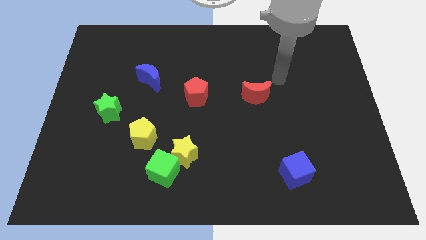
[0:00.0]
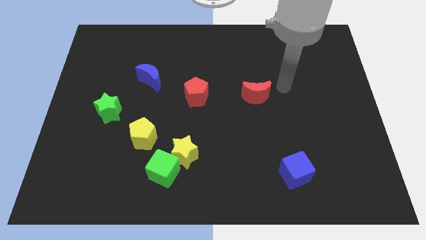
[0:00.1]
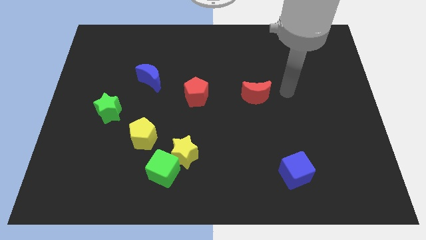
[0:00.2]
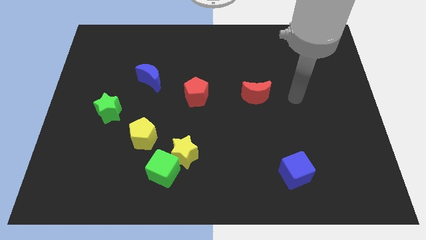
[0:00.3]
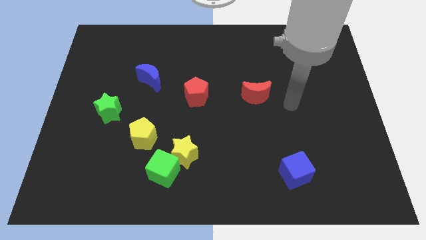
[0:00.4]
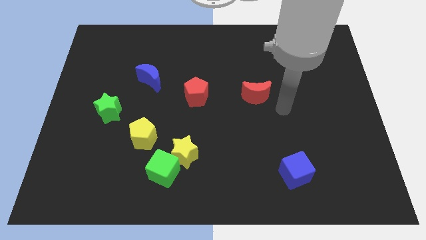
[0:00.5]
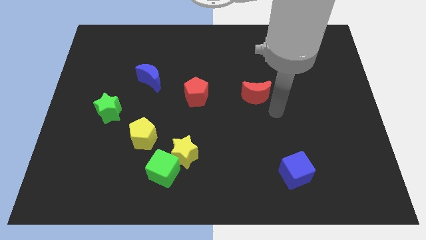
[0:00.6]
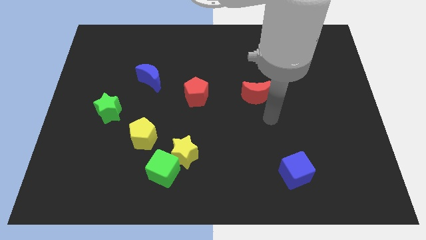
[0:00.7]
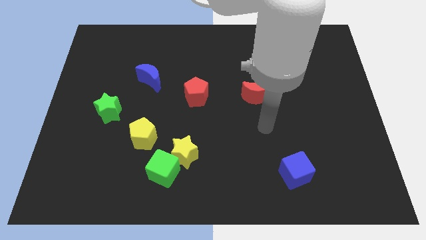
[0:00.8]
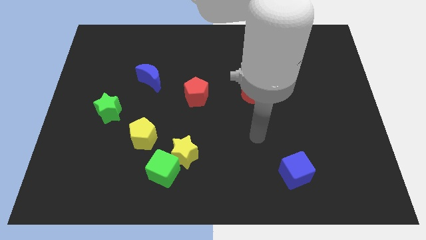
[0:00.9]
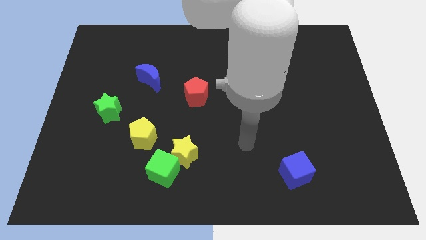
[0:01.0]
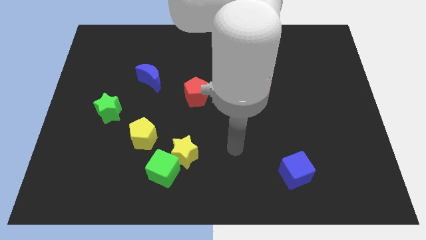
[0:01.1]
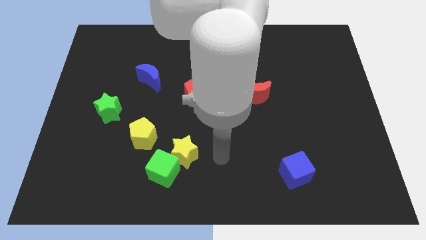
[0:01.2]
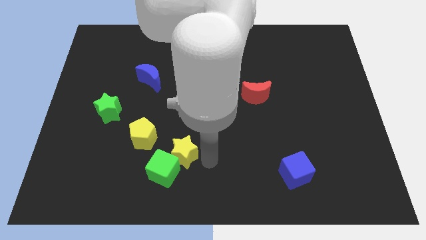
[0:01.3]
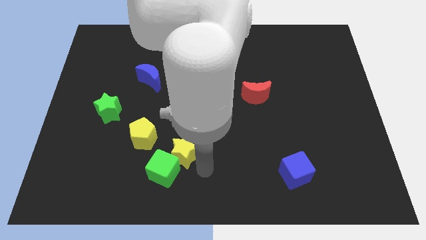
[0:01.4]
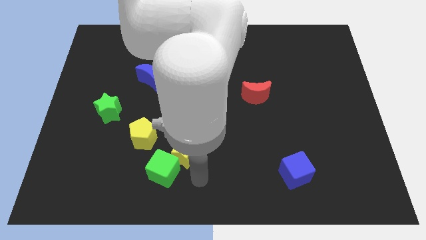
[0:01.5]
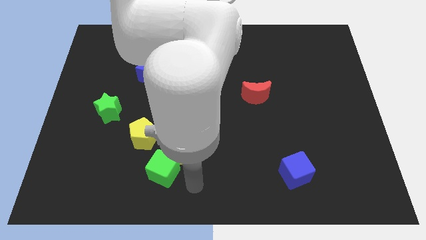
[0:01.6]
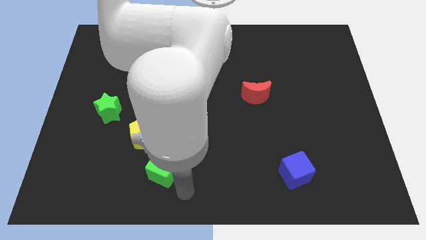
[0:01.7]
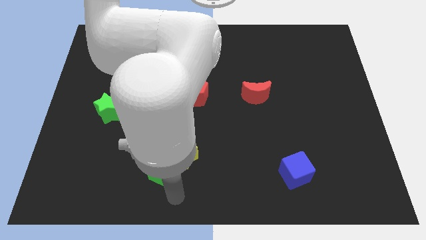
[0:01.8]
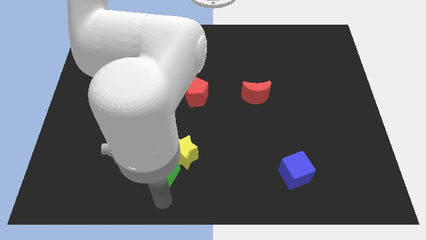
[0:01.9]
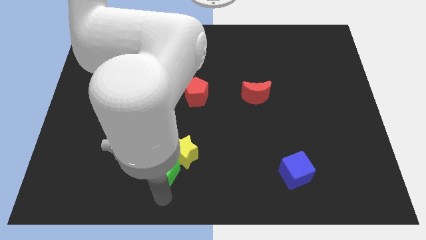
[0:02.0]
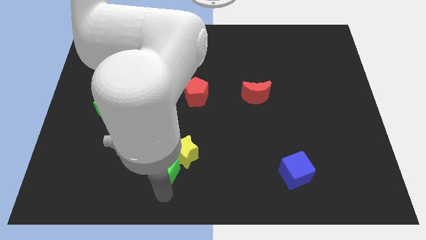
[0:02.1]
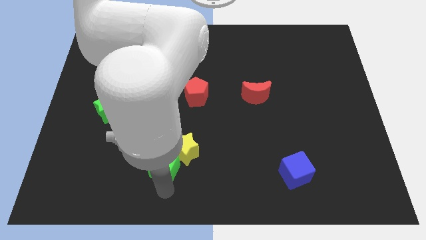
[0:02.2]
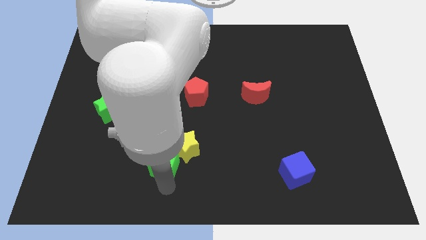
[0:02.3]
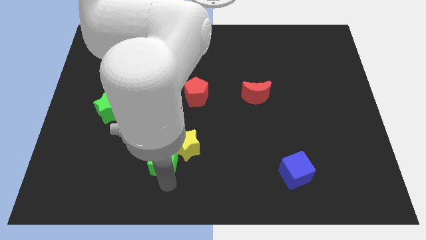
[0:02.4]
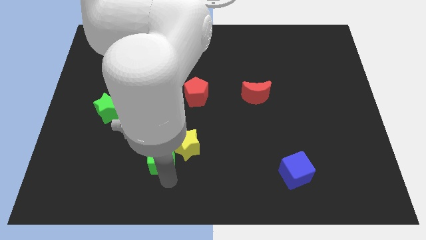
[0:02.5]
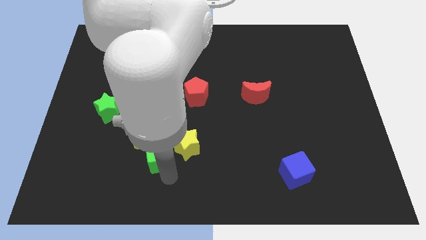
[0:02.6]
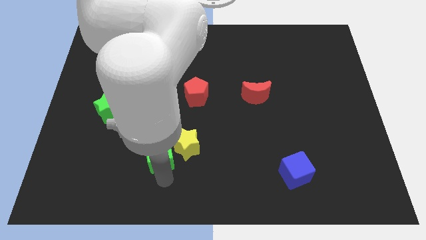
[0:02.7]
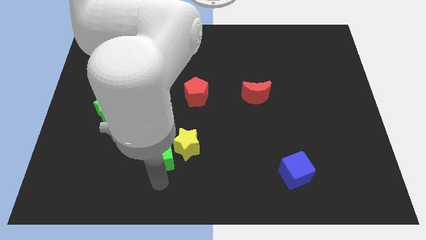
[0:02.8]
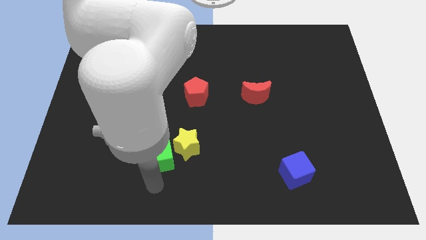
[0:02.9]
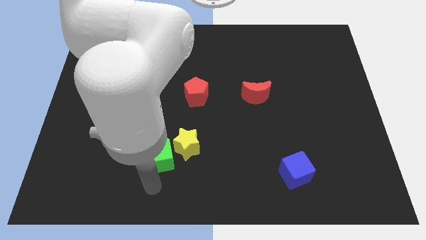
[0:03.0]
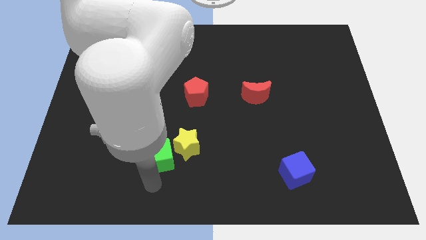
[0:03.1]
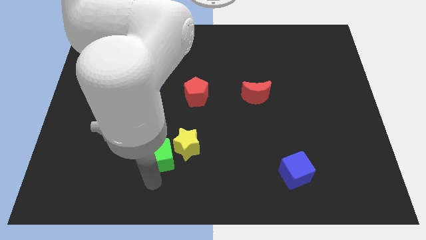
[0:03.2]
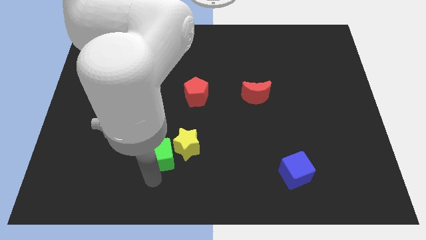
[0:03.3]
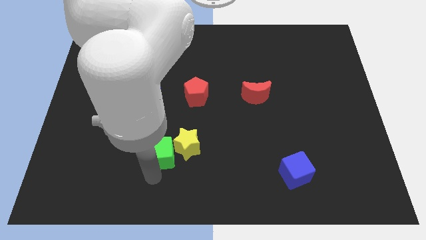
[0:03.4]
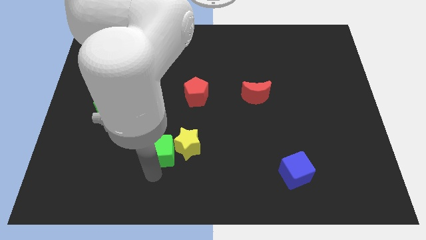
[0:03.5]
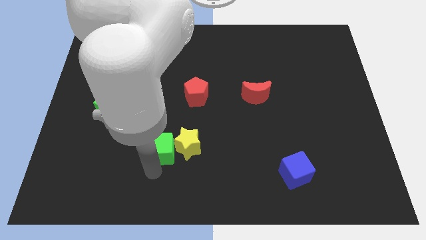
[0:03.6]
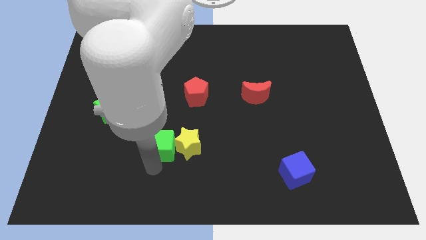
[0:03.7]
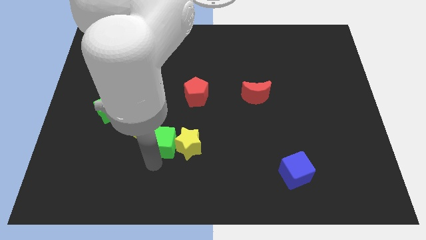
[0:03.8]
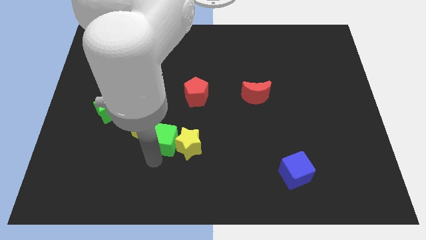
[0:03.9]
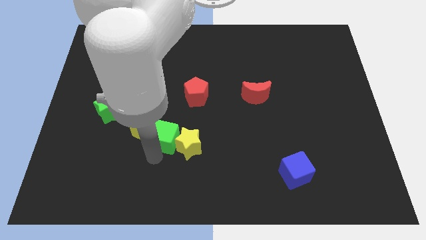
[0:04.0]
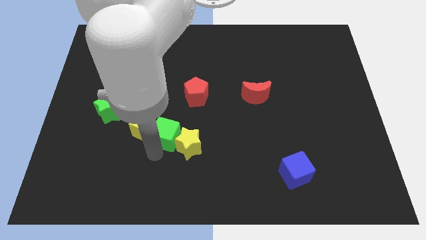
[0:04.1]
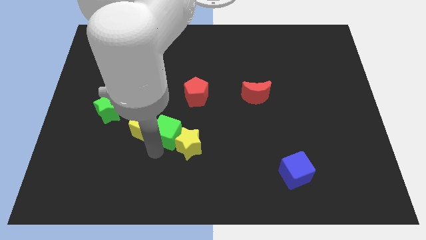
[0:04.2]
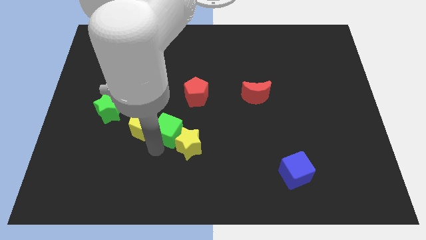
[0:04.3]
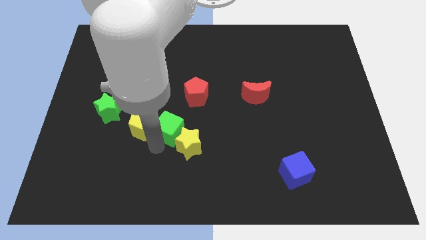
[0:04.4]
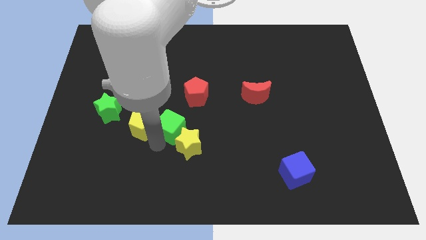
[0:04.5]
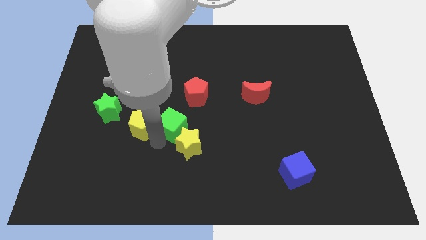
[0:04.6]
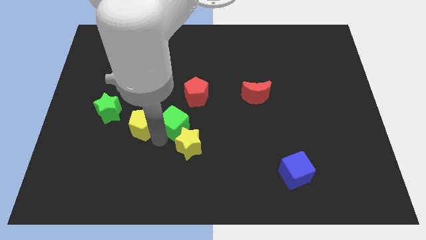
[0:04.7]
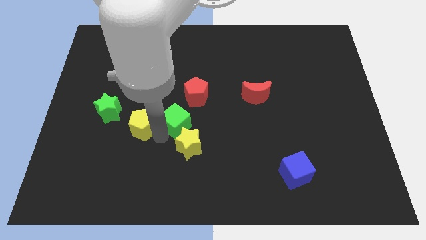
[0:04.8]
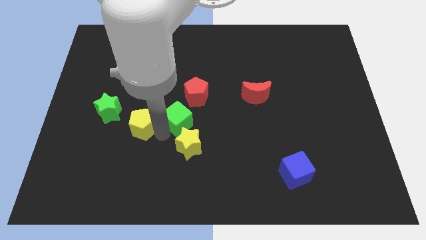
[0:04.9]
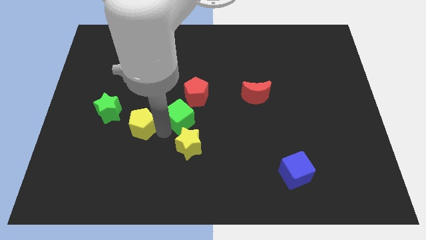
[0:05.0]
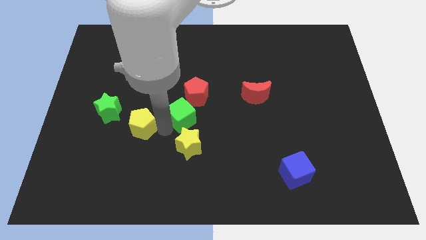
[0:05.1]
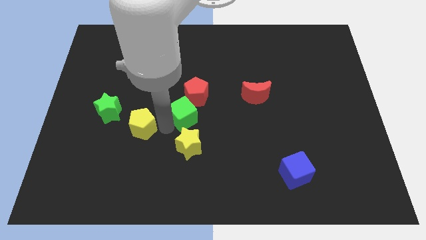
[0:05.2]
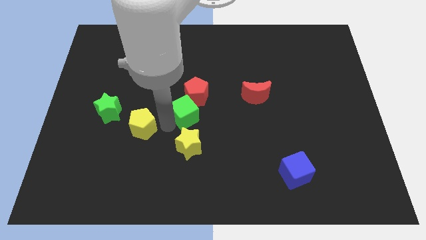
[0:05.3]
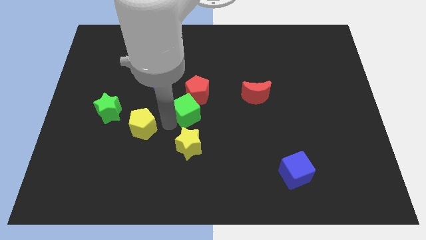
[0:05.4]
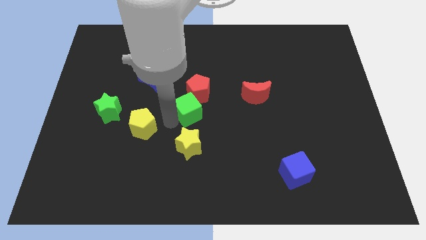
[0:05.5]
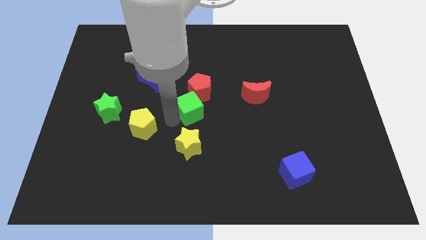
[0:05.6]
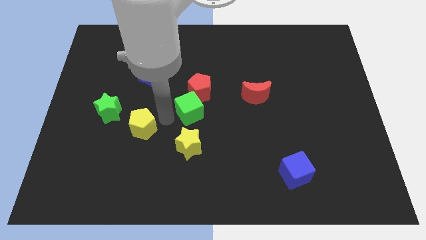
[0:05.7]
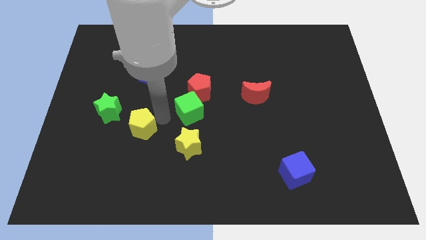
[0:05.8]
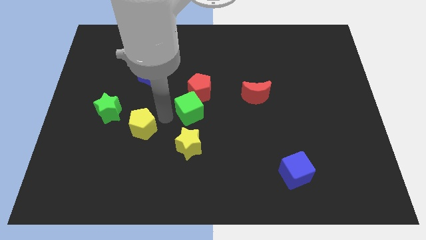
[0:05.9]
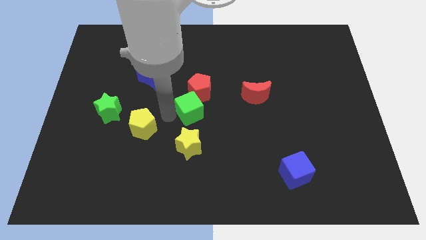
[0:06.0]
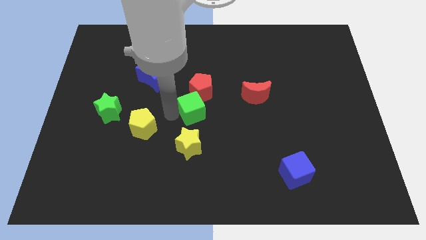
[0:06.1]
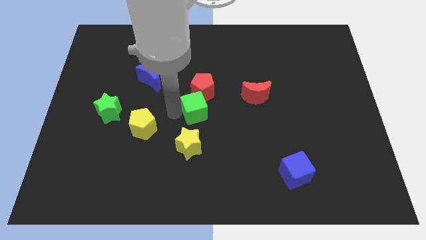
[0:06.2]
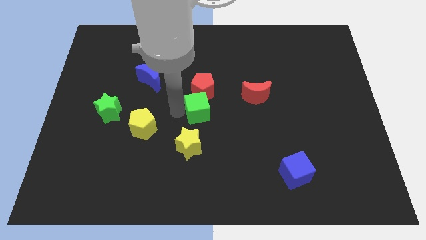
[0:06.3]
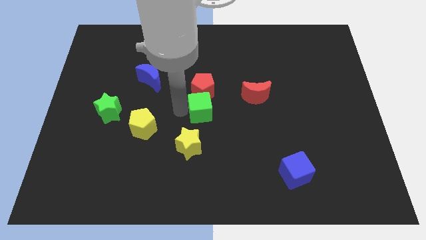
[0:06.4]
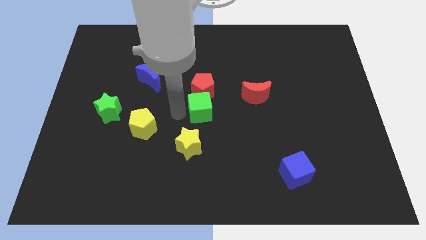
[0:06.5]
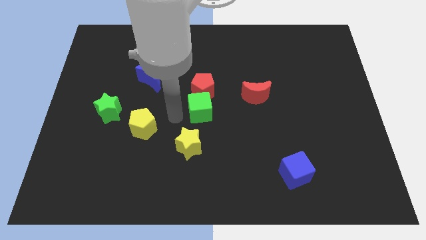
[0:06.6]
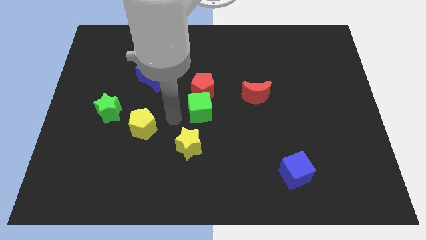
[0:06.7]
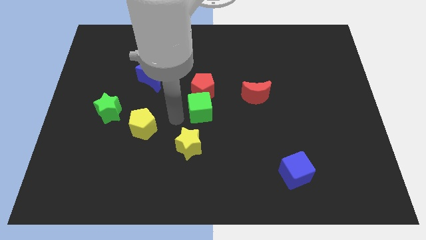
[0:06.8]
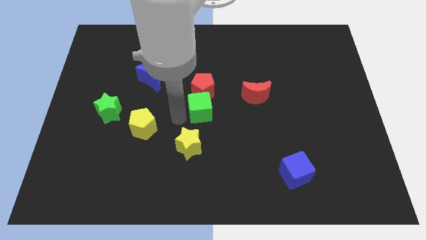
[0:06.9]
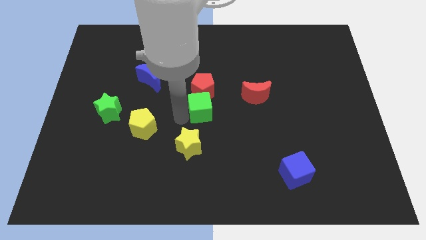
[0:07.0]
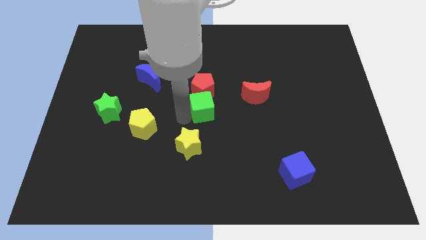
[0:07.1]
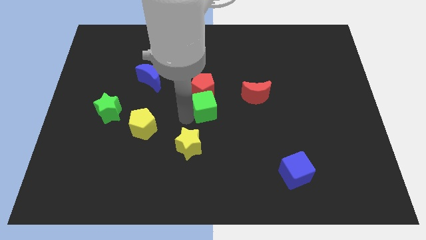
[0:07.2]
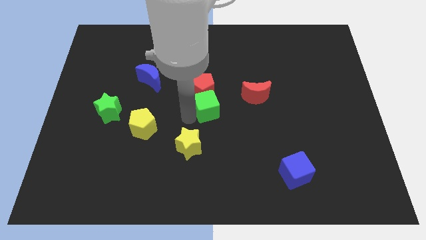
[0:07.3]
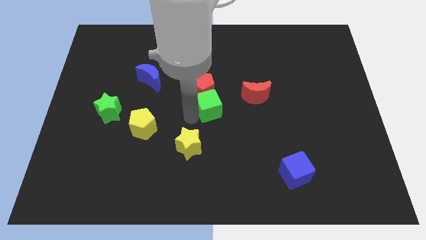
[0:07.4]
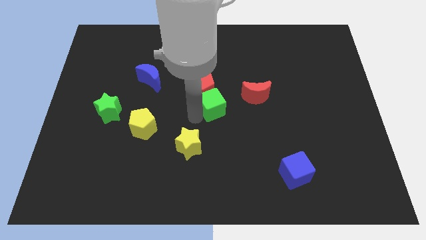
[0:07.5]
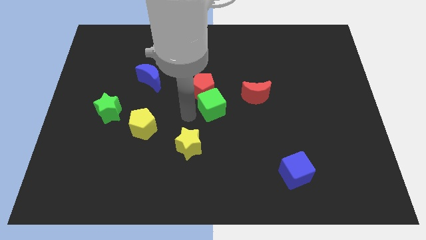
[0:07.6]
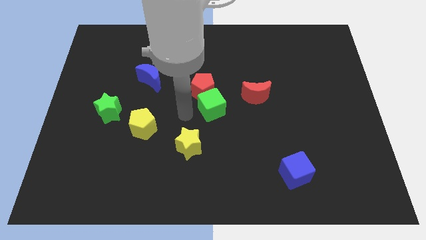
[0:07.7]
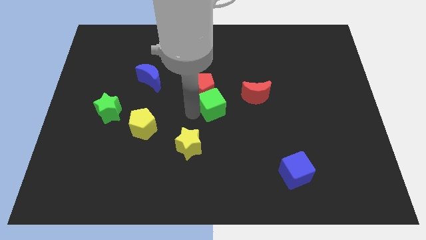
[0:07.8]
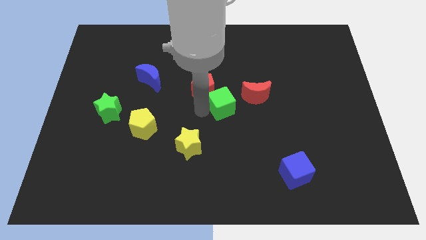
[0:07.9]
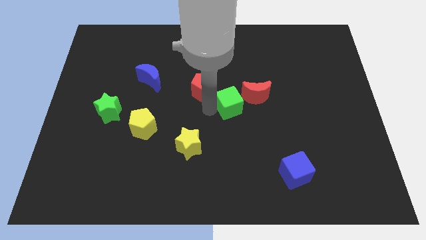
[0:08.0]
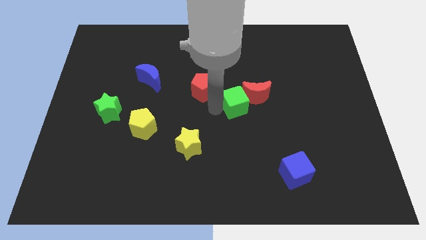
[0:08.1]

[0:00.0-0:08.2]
slide the green cube next to the red moon
